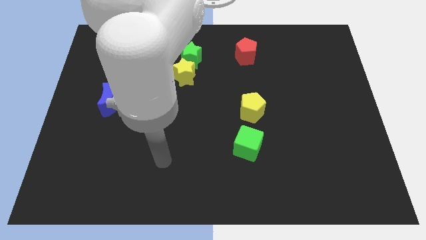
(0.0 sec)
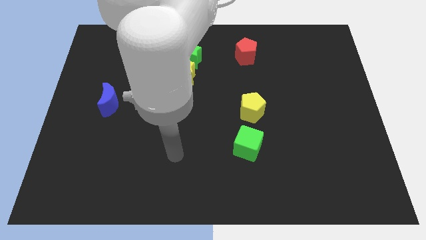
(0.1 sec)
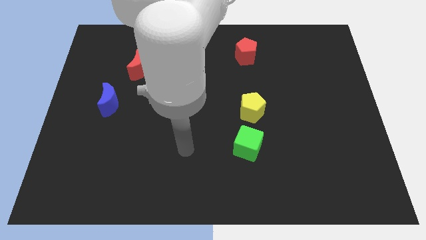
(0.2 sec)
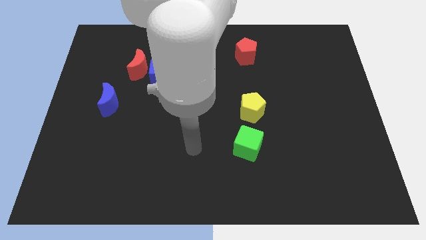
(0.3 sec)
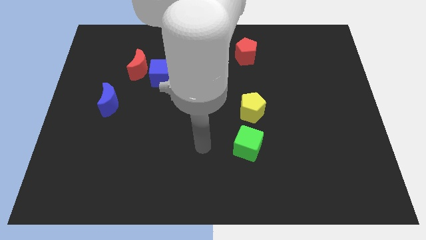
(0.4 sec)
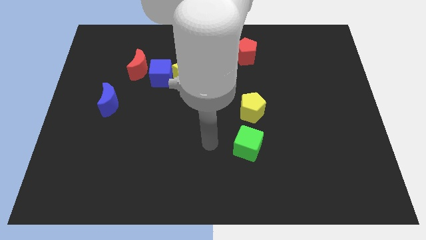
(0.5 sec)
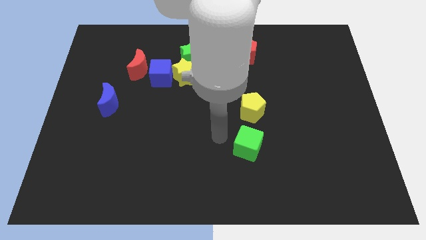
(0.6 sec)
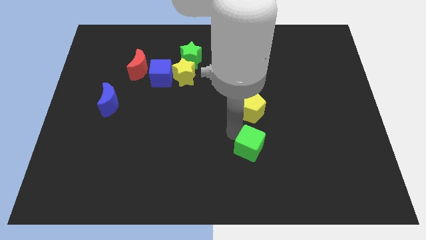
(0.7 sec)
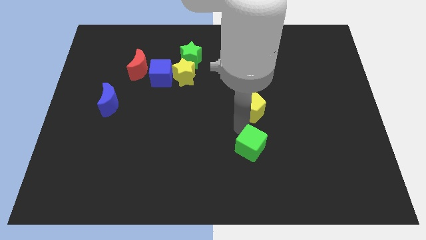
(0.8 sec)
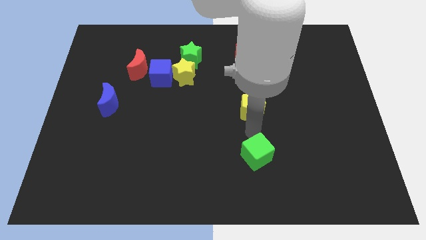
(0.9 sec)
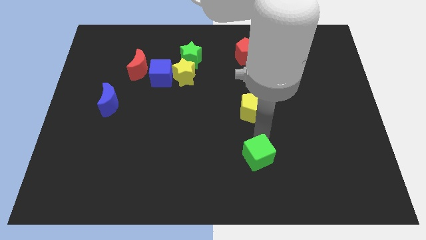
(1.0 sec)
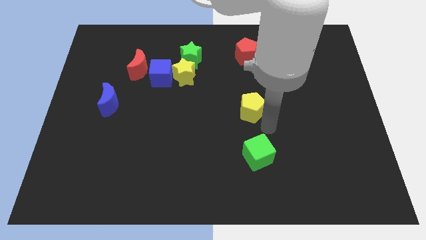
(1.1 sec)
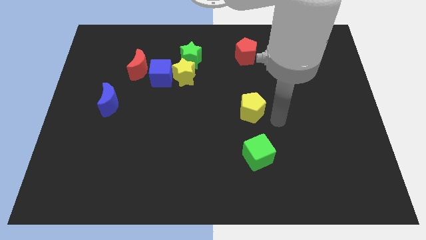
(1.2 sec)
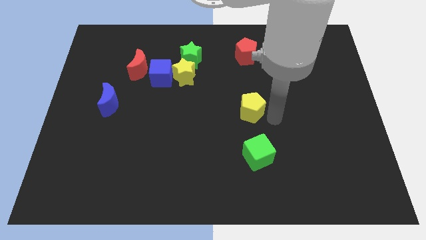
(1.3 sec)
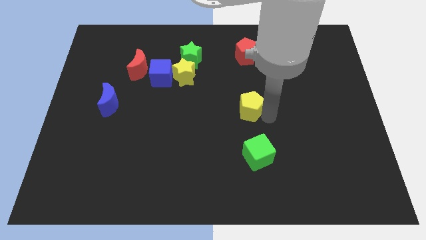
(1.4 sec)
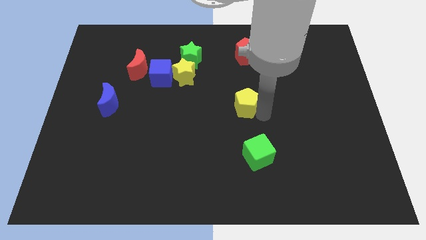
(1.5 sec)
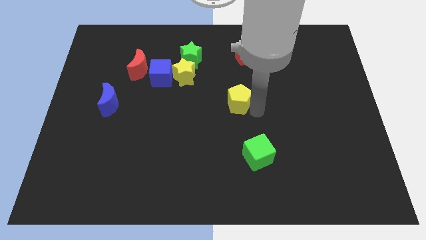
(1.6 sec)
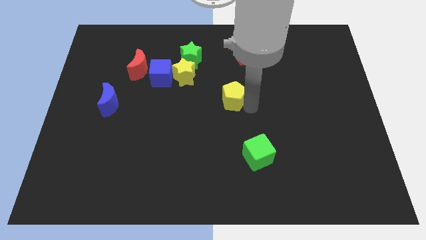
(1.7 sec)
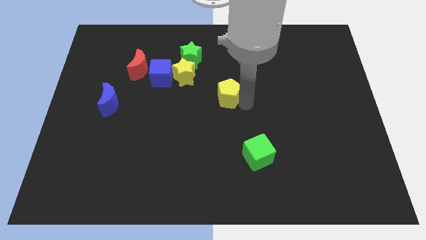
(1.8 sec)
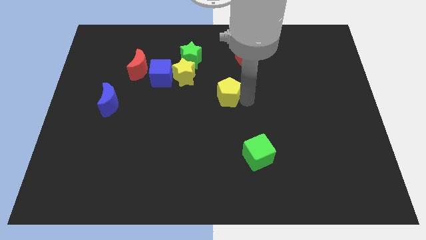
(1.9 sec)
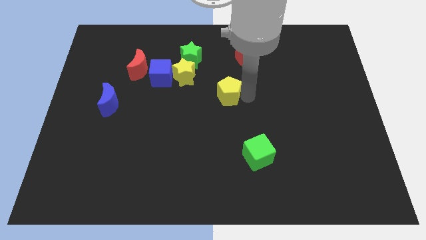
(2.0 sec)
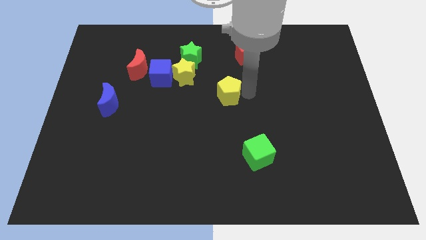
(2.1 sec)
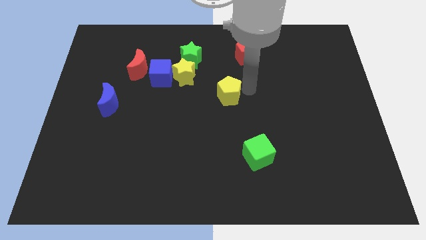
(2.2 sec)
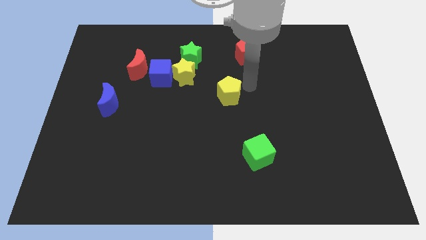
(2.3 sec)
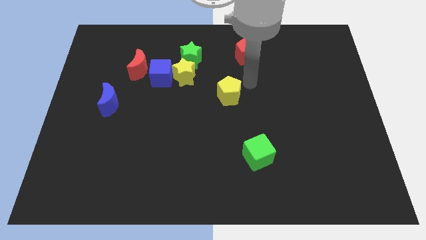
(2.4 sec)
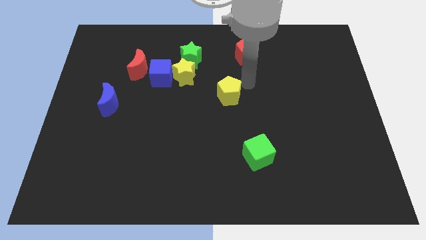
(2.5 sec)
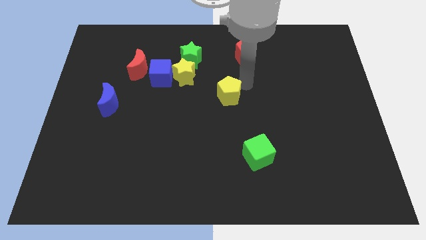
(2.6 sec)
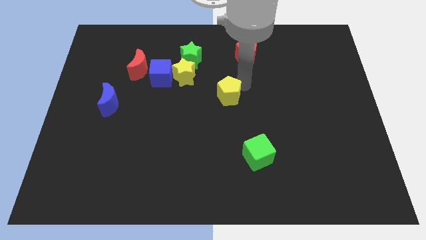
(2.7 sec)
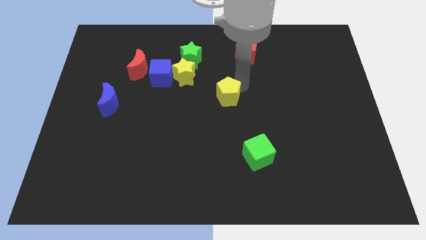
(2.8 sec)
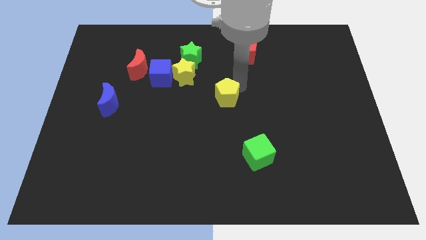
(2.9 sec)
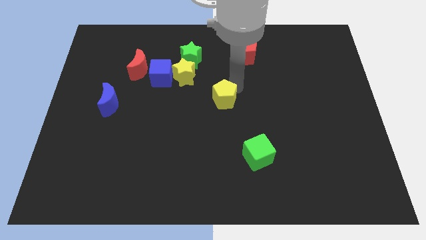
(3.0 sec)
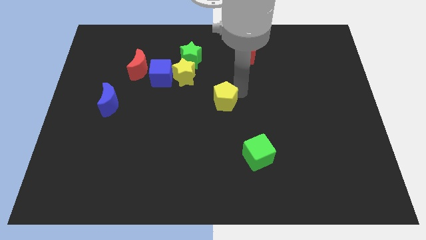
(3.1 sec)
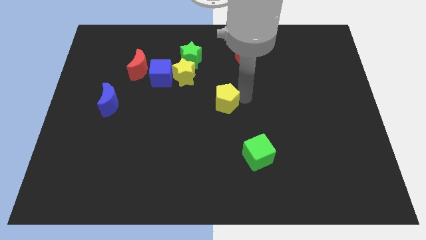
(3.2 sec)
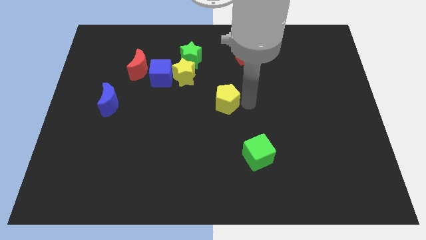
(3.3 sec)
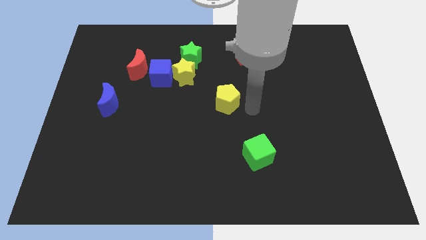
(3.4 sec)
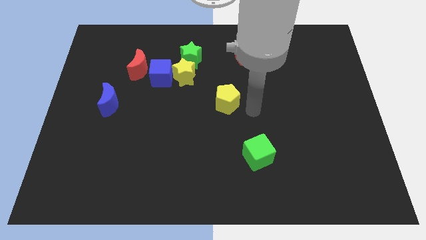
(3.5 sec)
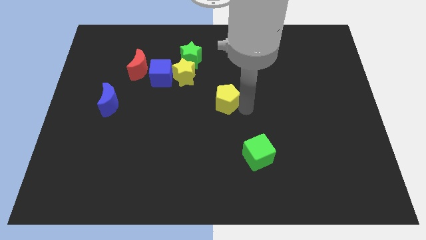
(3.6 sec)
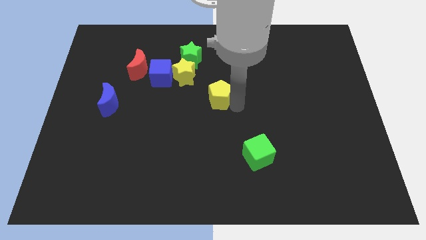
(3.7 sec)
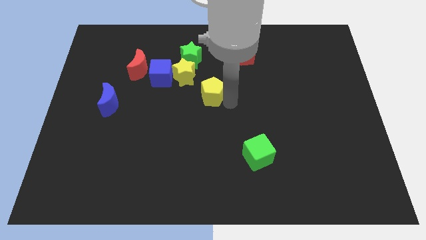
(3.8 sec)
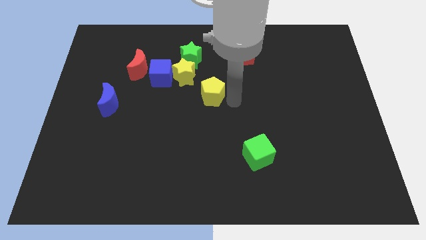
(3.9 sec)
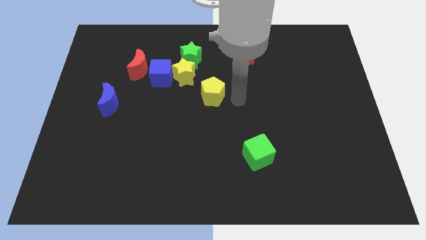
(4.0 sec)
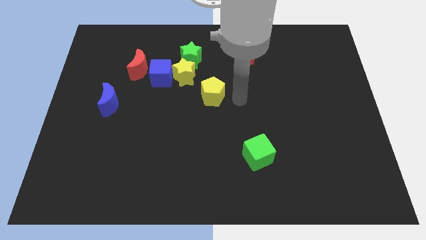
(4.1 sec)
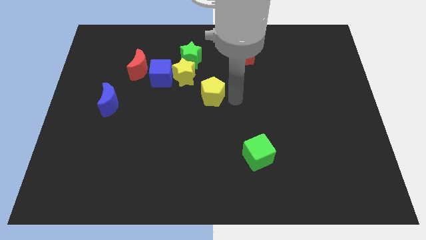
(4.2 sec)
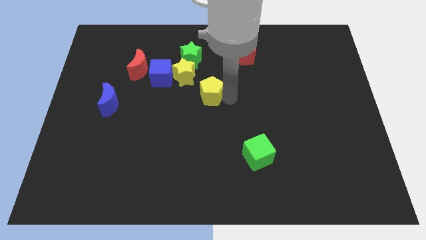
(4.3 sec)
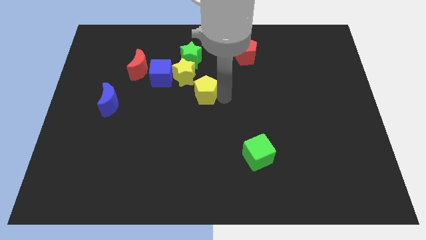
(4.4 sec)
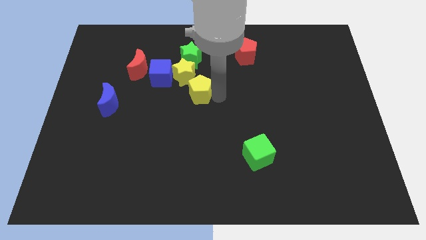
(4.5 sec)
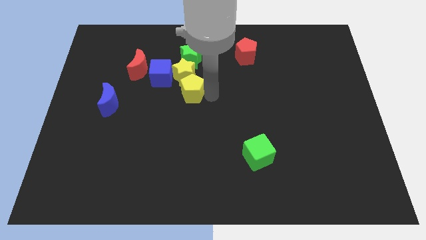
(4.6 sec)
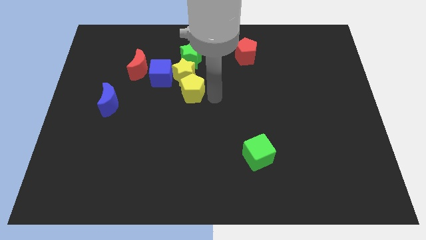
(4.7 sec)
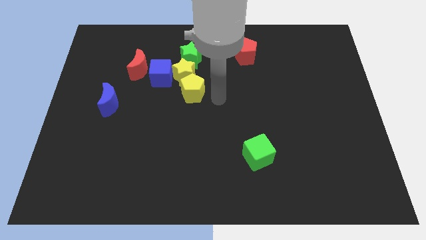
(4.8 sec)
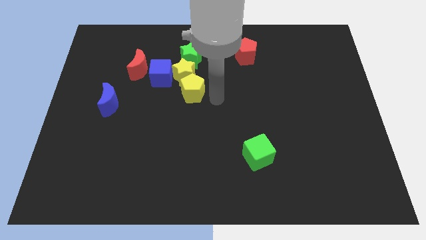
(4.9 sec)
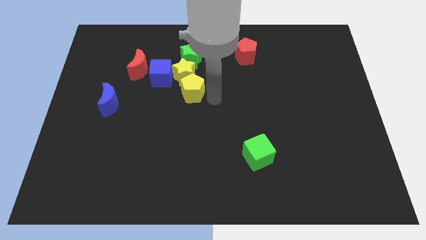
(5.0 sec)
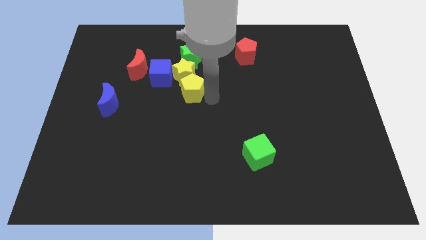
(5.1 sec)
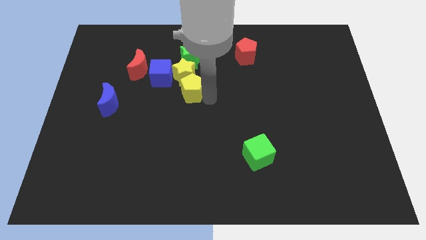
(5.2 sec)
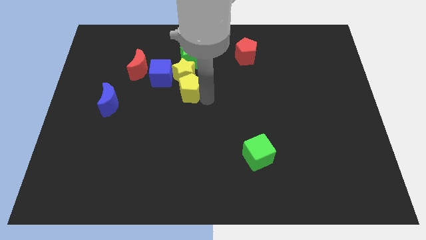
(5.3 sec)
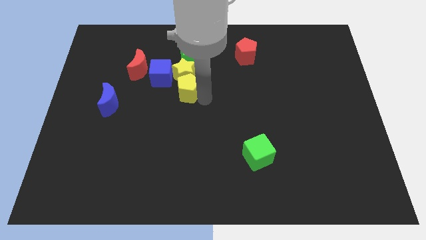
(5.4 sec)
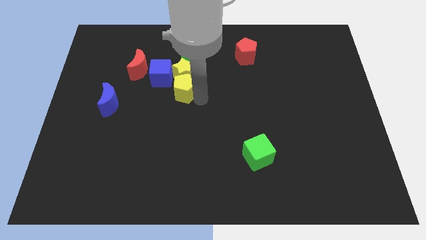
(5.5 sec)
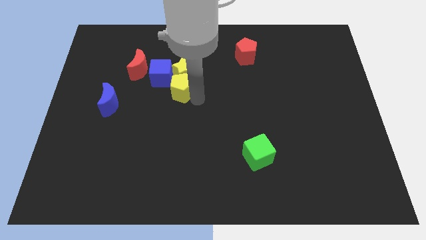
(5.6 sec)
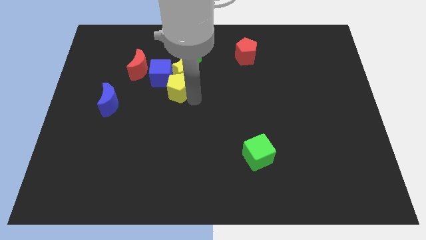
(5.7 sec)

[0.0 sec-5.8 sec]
slide the yellow pentagon to the bottom right of the red moon

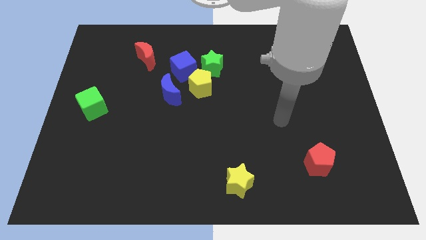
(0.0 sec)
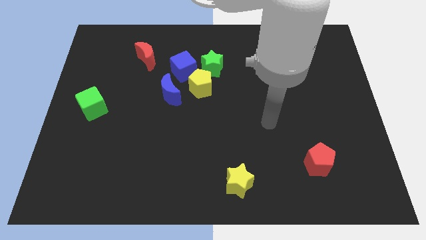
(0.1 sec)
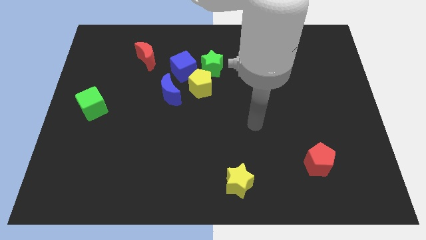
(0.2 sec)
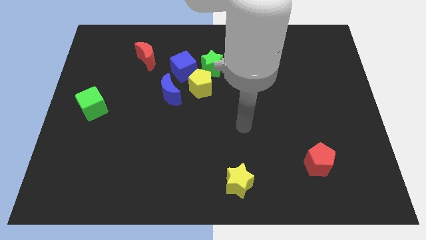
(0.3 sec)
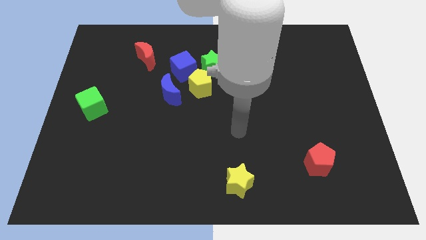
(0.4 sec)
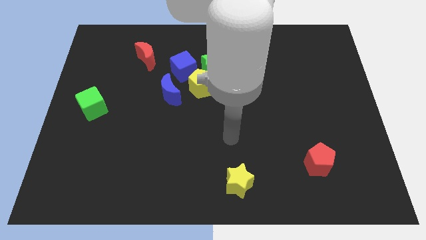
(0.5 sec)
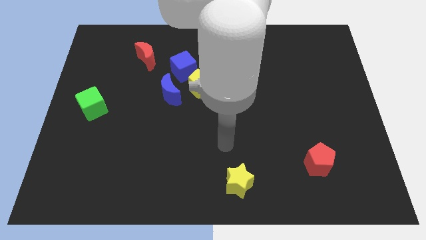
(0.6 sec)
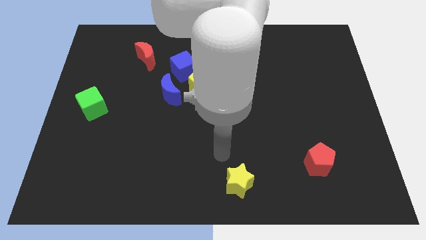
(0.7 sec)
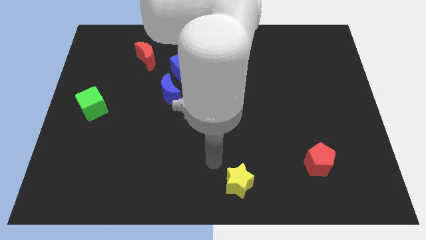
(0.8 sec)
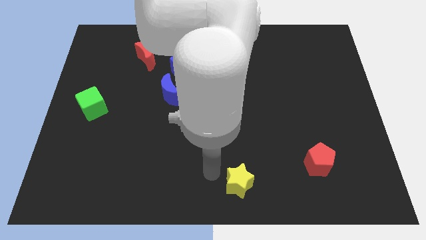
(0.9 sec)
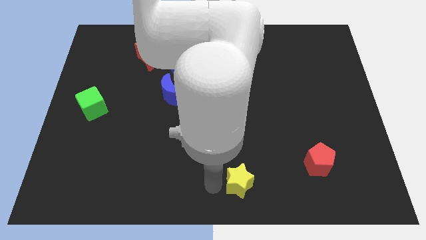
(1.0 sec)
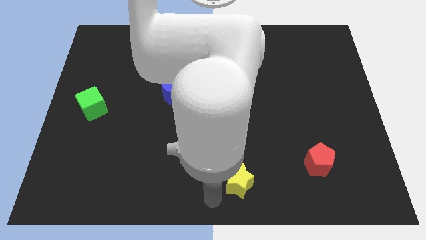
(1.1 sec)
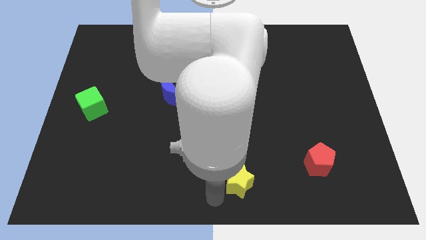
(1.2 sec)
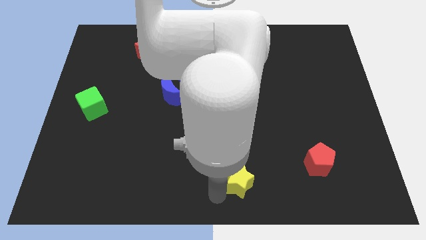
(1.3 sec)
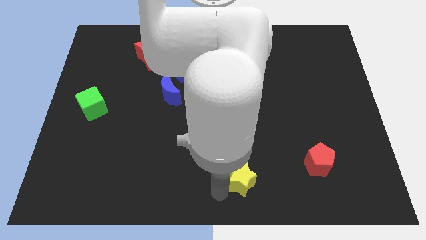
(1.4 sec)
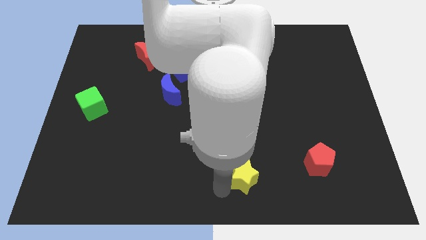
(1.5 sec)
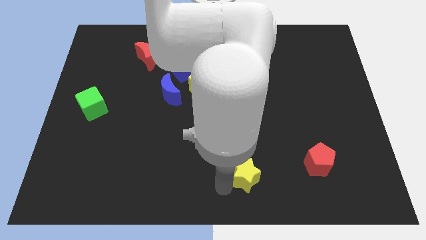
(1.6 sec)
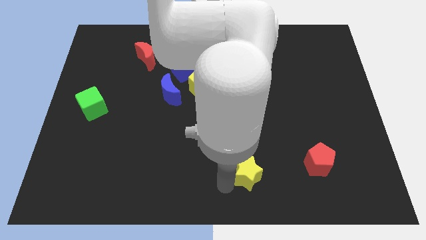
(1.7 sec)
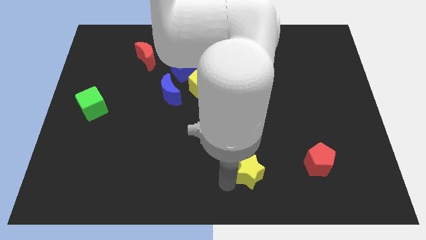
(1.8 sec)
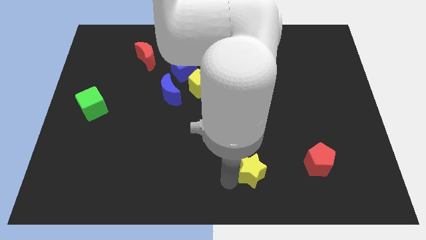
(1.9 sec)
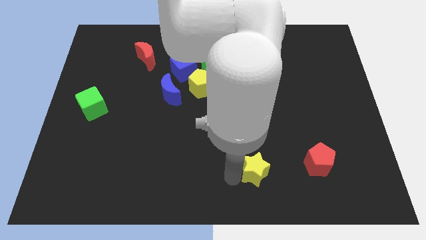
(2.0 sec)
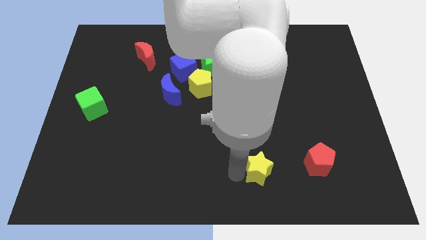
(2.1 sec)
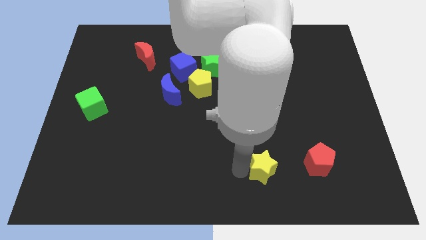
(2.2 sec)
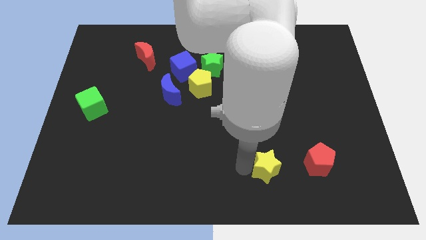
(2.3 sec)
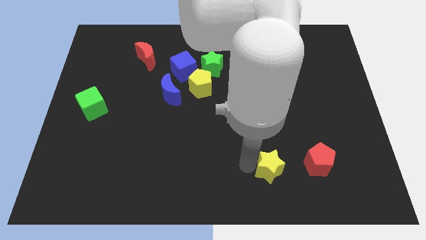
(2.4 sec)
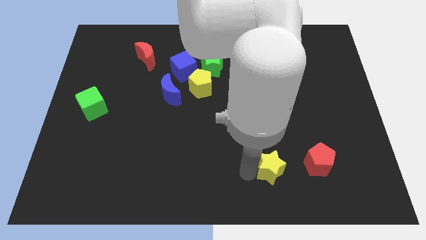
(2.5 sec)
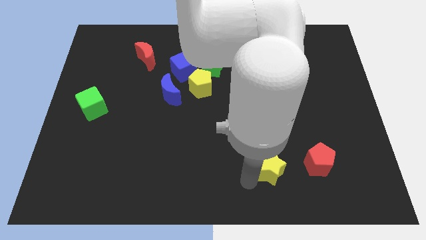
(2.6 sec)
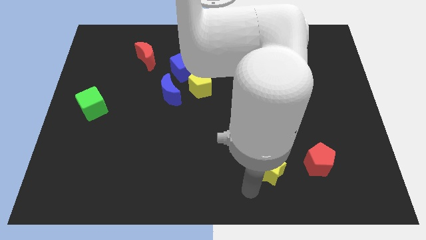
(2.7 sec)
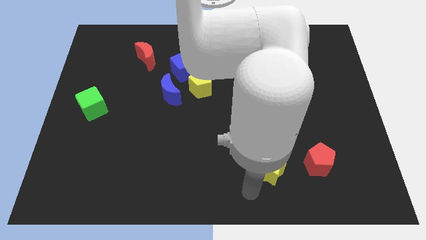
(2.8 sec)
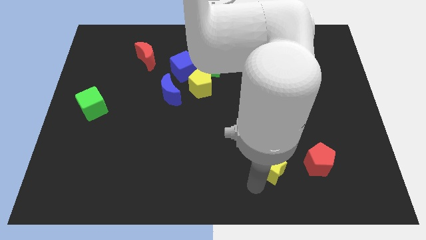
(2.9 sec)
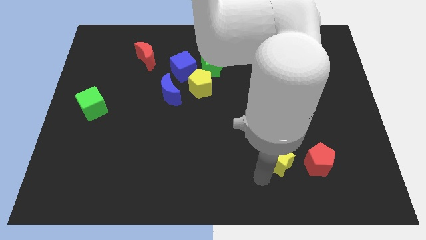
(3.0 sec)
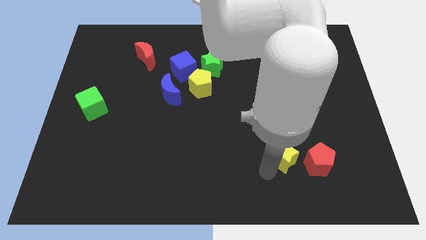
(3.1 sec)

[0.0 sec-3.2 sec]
move the yellow star to the top left side of the red pentagon
